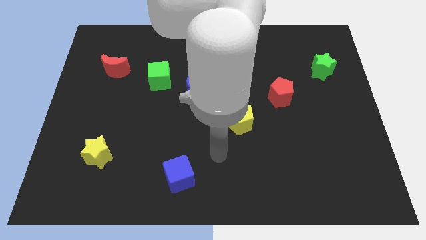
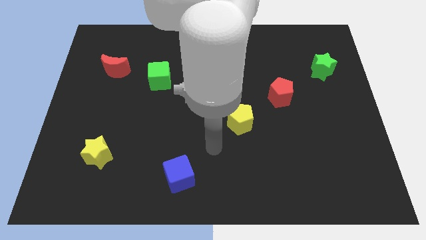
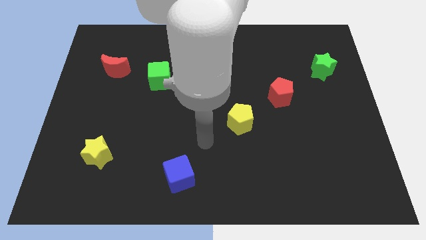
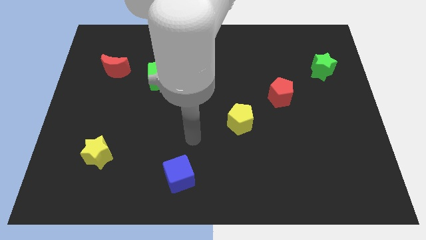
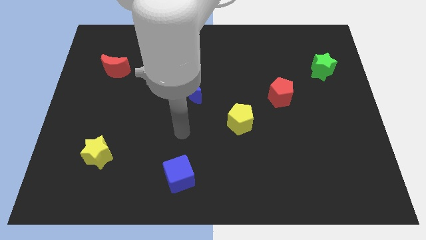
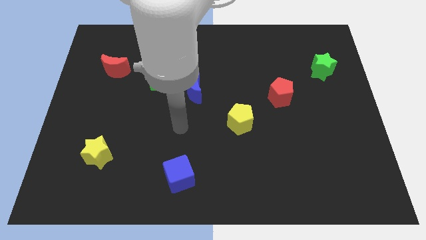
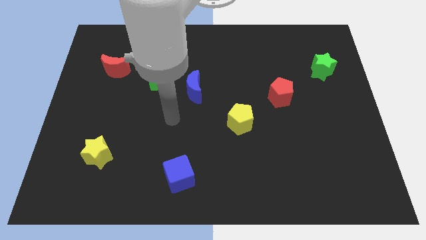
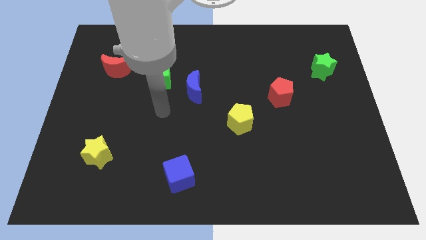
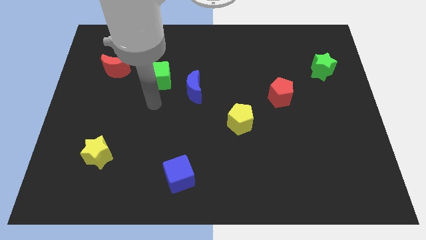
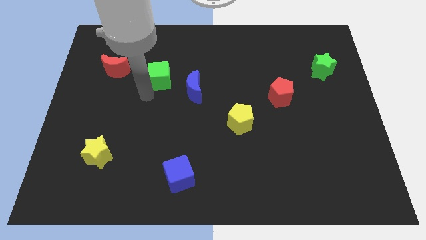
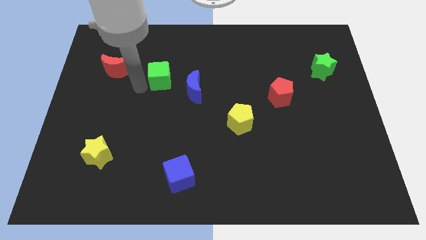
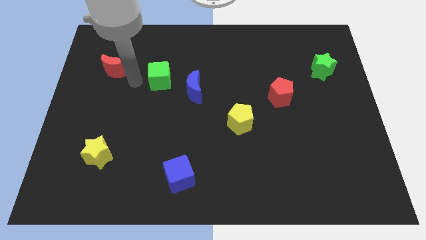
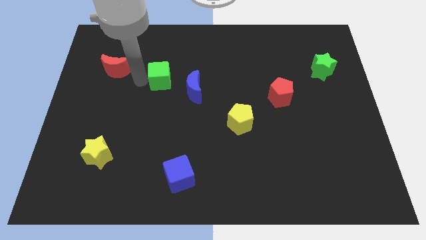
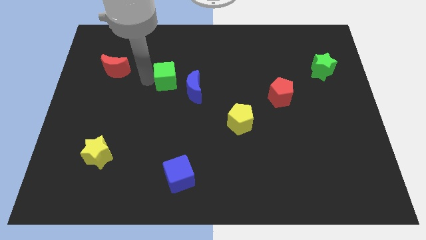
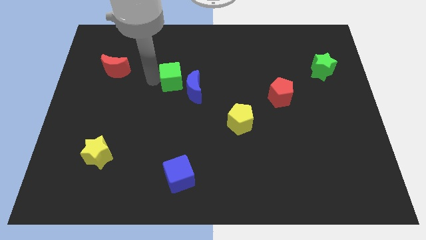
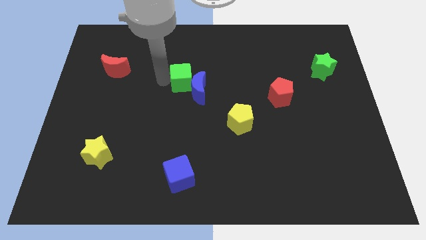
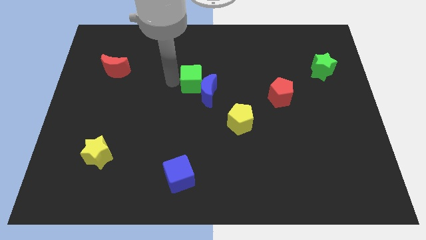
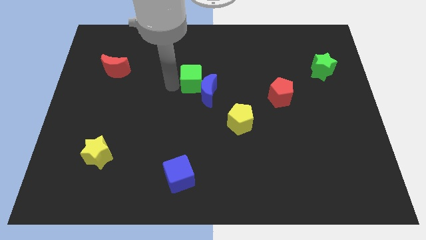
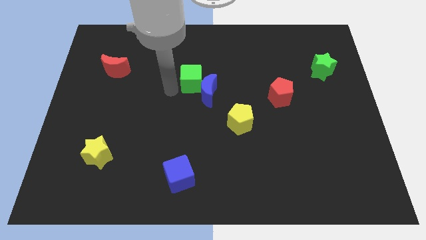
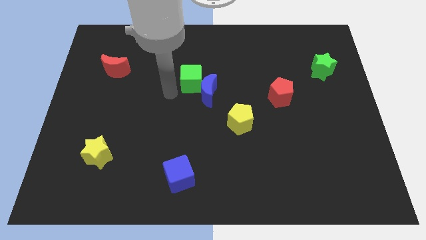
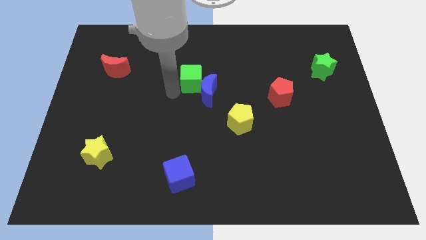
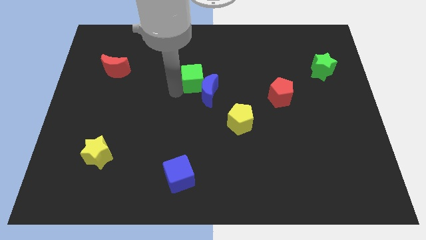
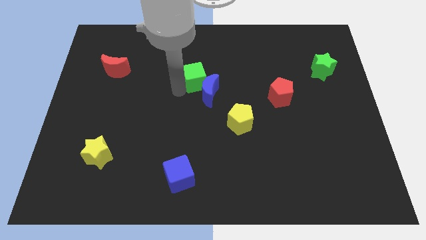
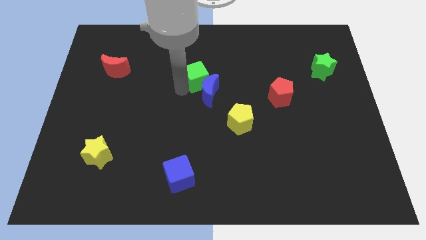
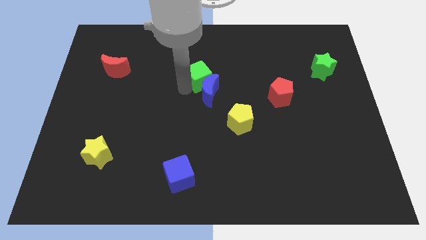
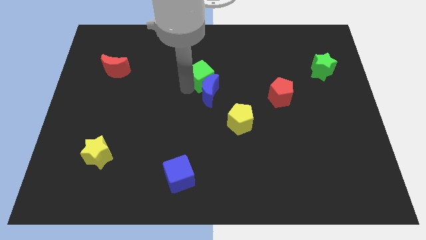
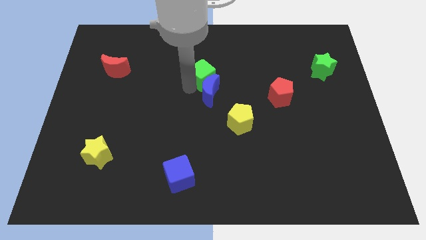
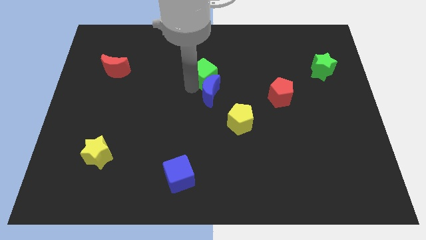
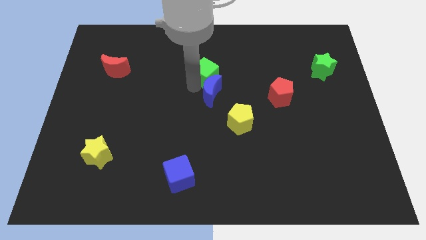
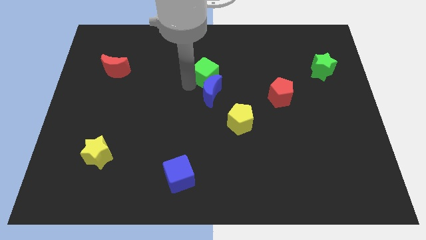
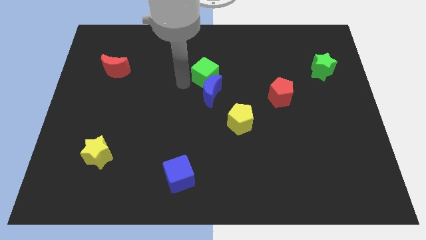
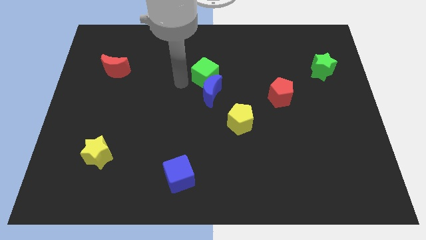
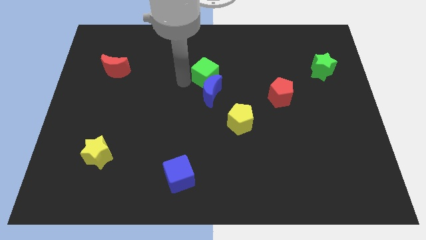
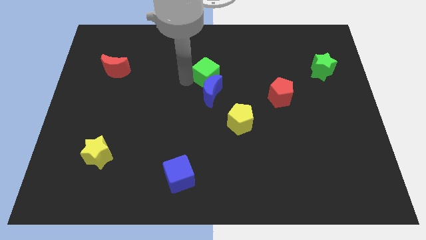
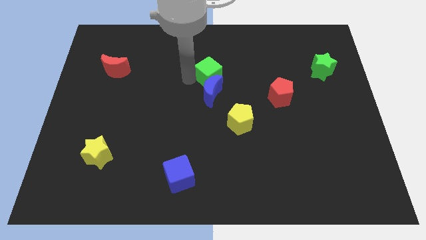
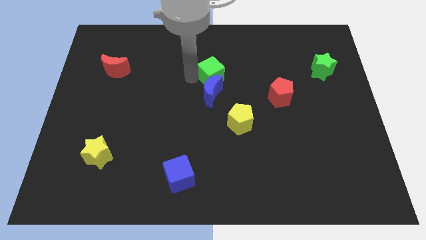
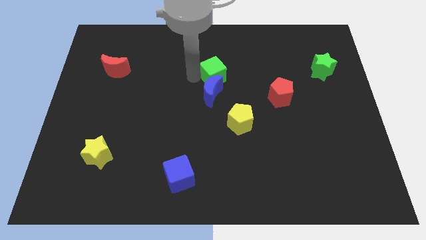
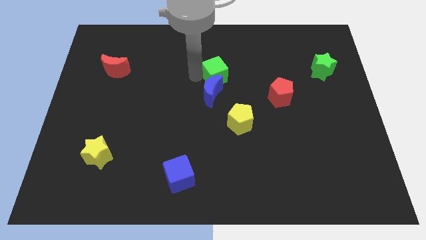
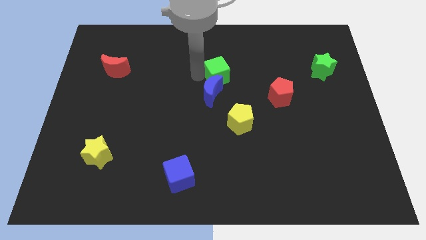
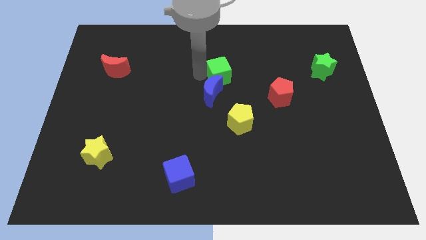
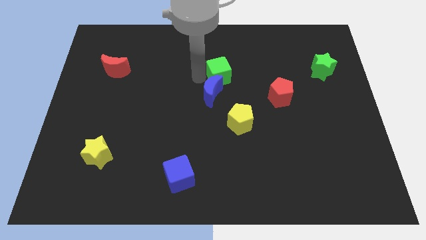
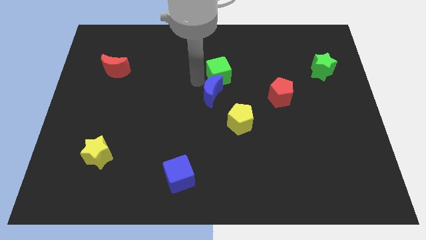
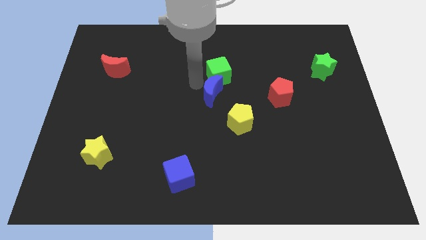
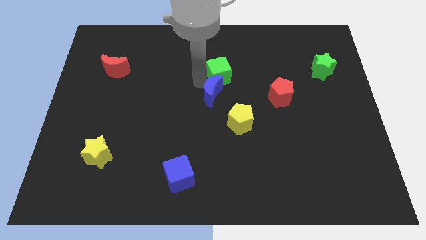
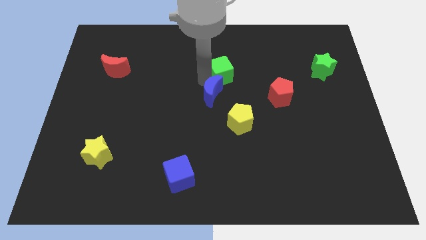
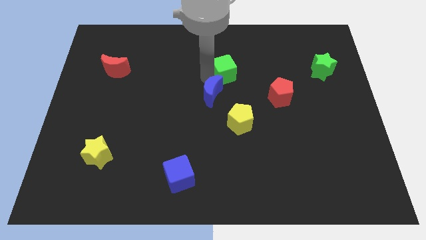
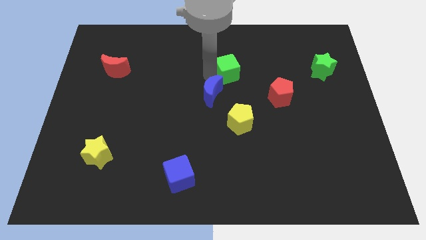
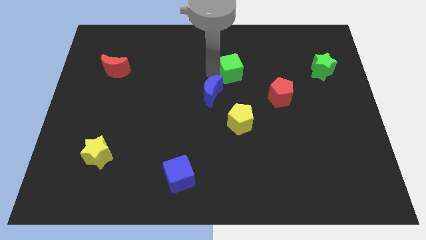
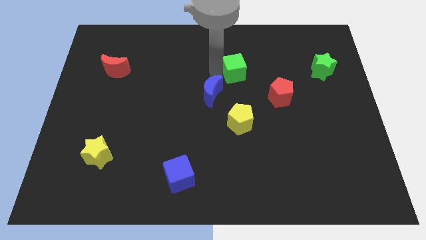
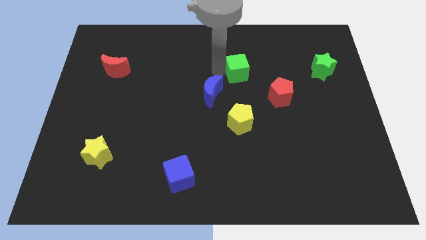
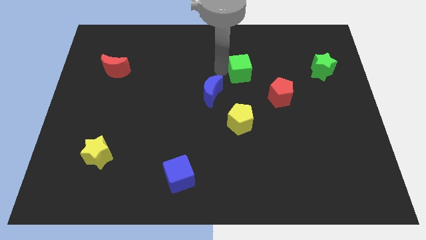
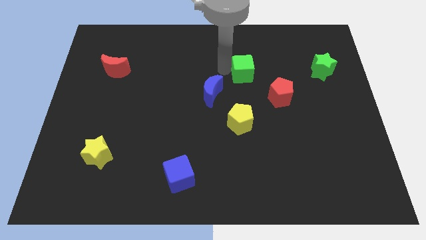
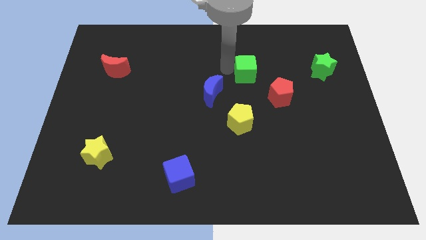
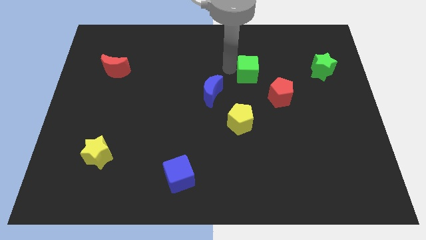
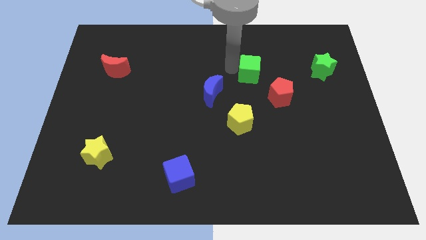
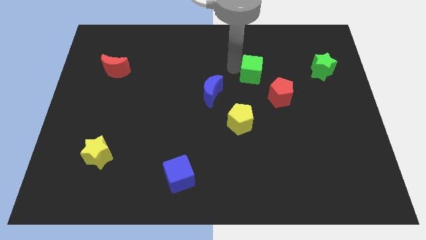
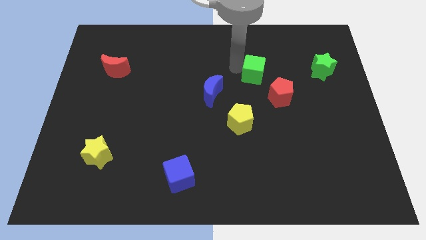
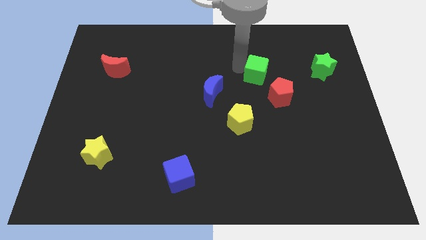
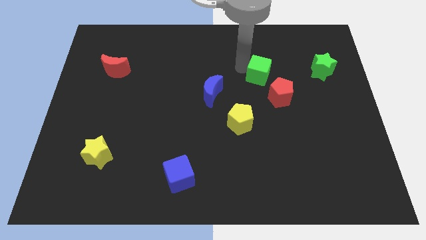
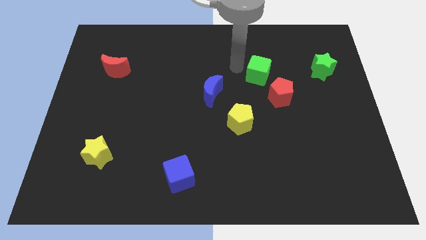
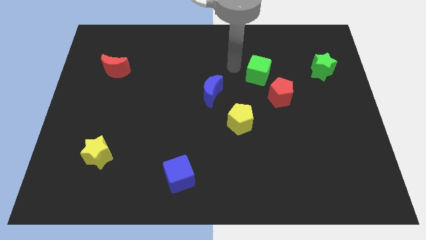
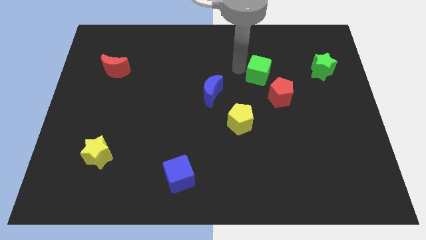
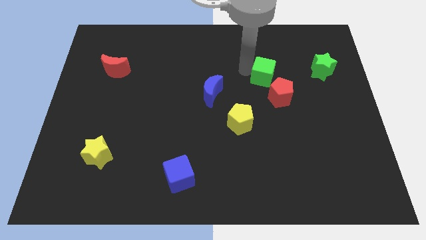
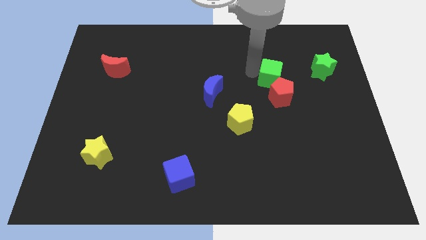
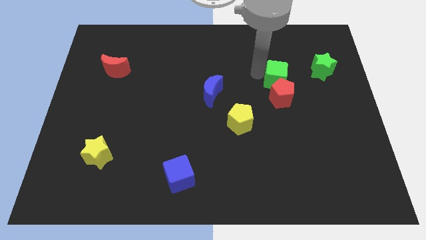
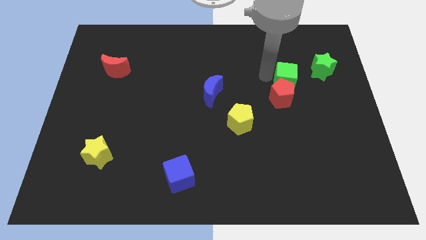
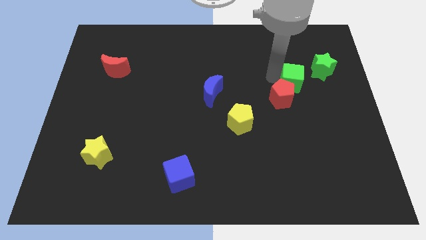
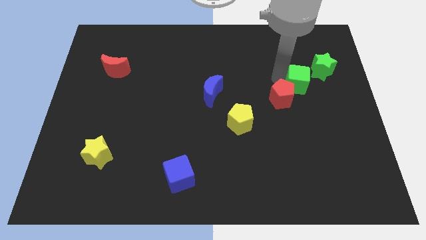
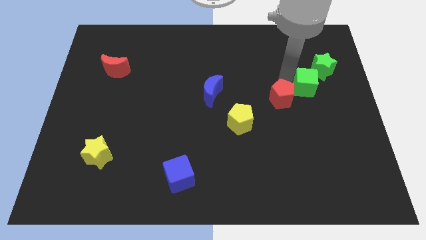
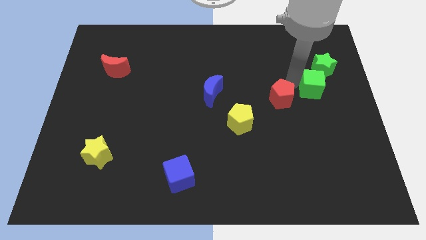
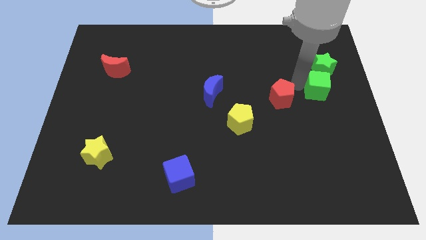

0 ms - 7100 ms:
put the green cube to the right side
